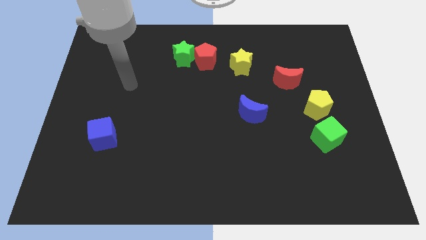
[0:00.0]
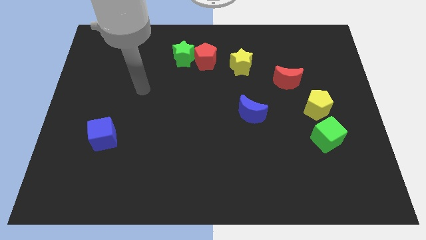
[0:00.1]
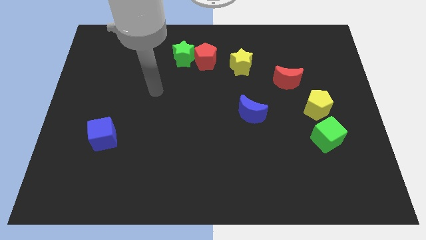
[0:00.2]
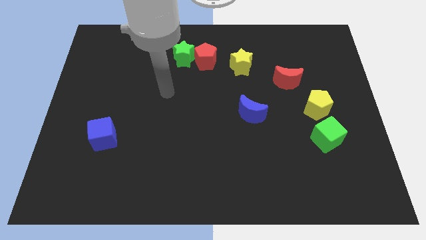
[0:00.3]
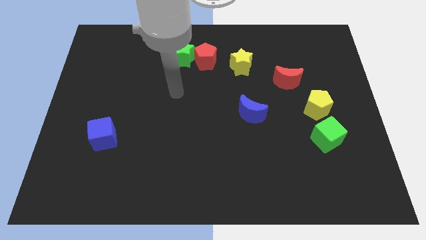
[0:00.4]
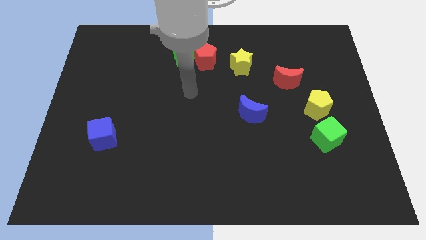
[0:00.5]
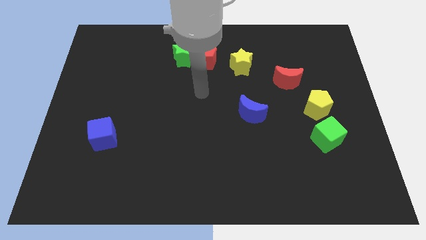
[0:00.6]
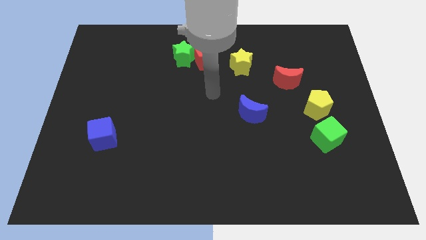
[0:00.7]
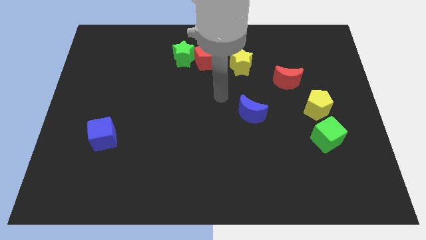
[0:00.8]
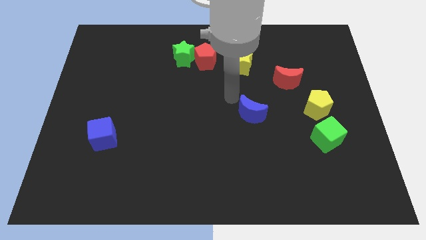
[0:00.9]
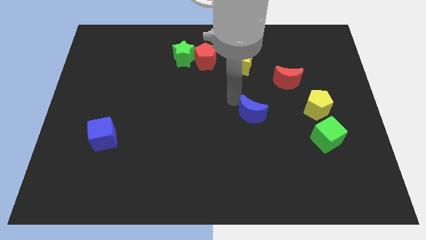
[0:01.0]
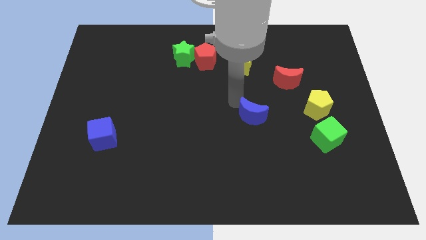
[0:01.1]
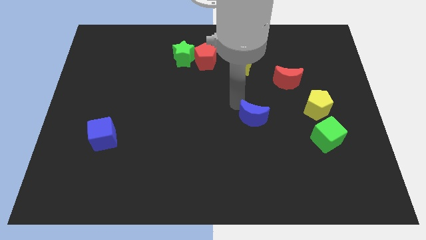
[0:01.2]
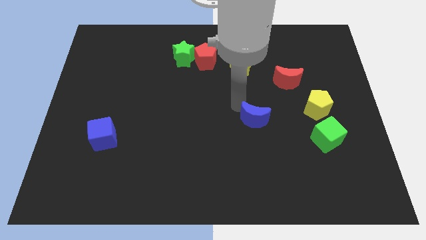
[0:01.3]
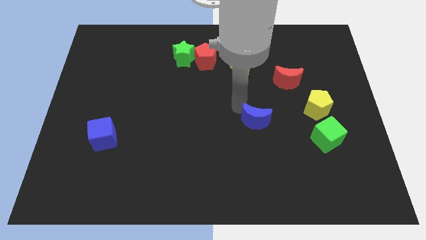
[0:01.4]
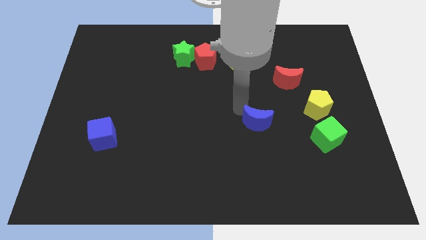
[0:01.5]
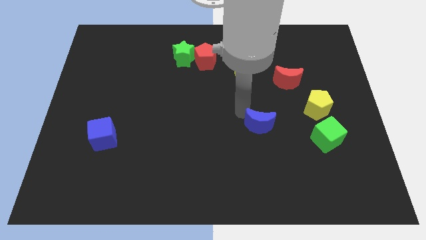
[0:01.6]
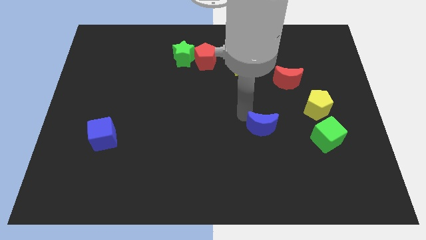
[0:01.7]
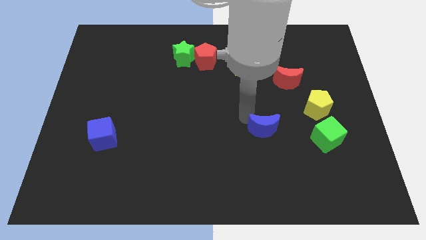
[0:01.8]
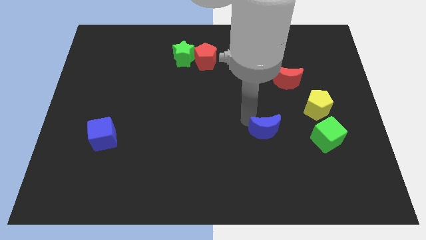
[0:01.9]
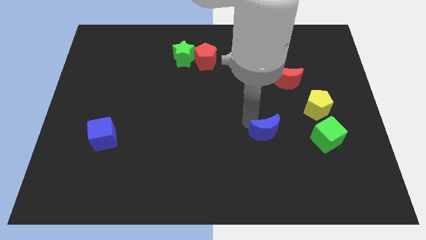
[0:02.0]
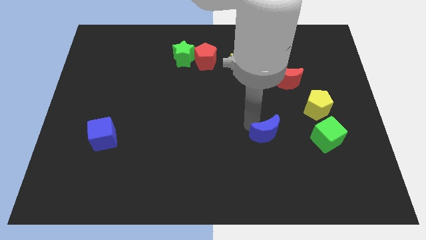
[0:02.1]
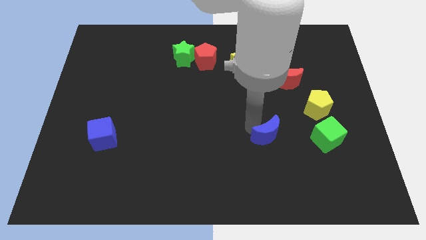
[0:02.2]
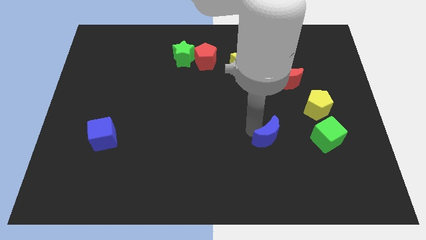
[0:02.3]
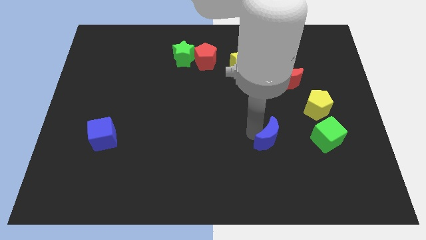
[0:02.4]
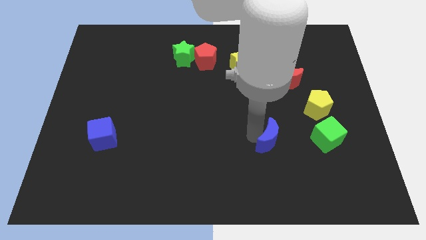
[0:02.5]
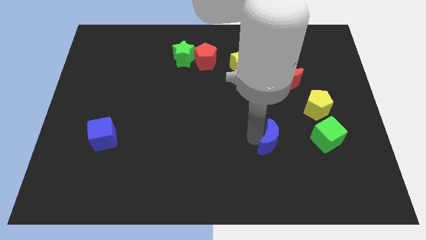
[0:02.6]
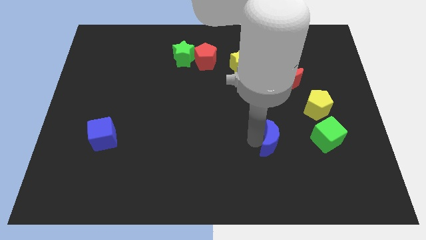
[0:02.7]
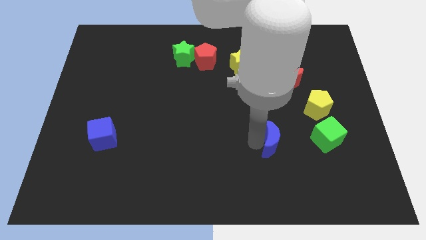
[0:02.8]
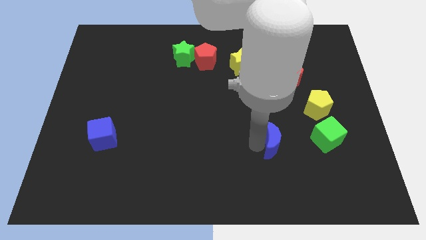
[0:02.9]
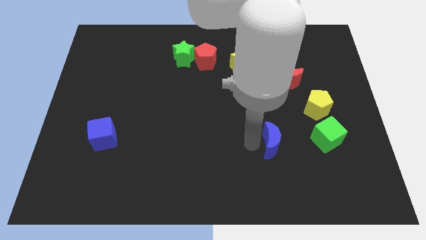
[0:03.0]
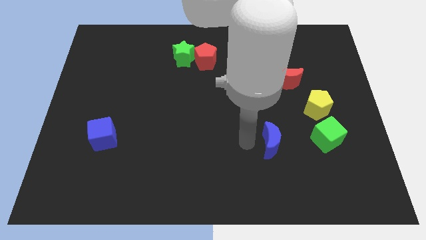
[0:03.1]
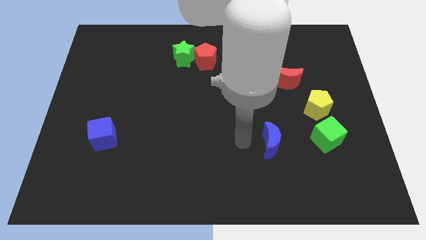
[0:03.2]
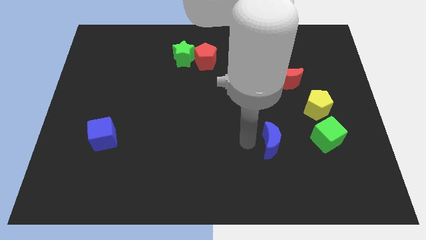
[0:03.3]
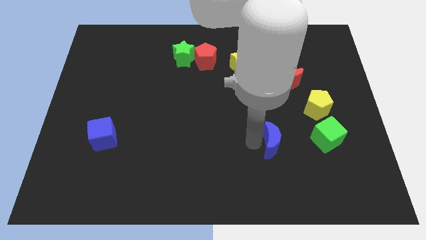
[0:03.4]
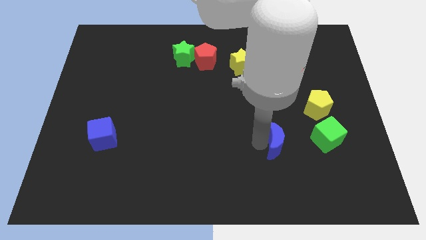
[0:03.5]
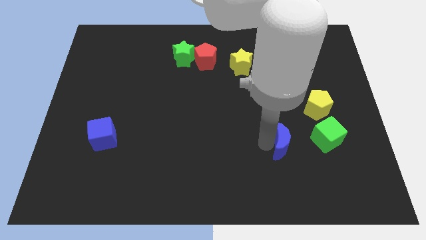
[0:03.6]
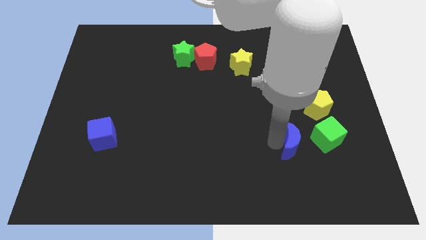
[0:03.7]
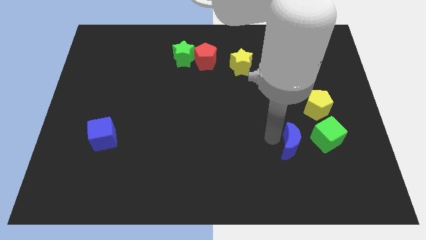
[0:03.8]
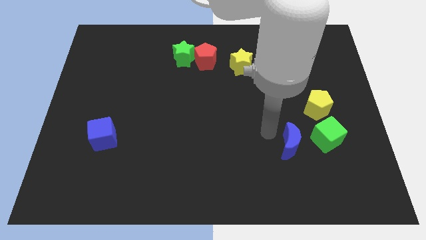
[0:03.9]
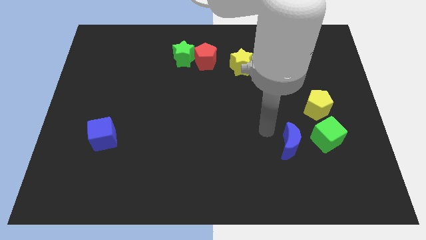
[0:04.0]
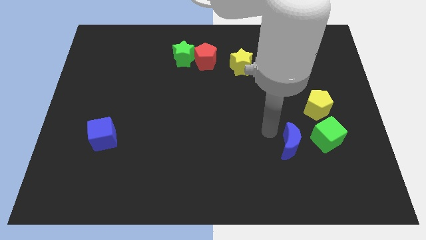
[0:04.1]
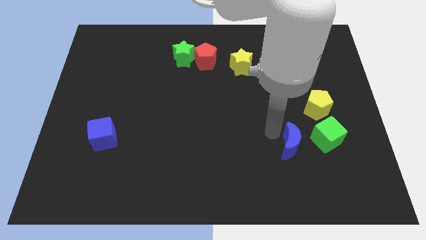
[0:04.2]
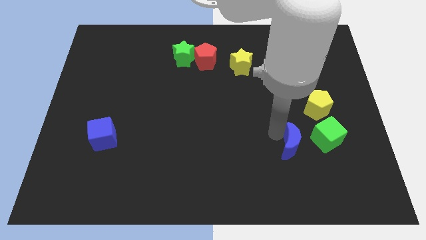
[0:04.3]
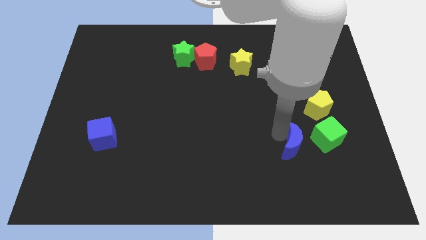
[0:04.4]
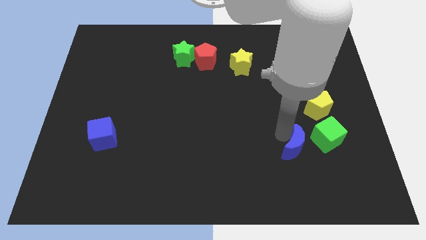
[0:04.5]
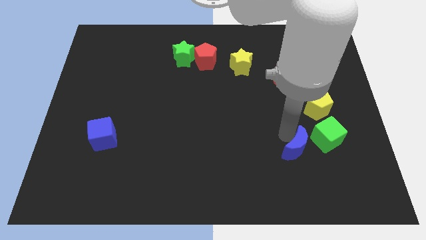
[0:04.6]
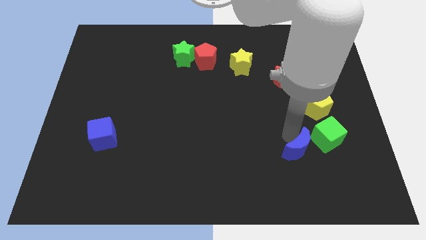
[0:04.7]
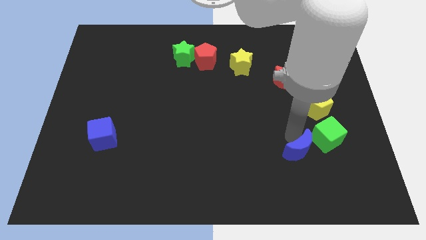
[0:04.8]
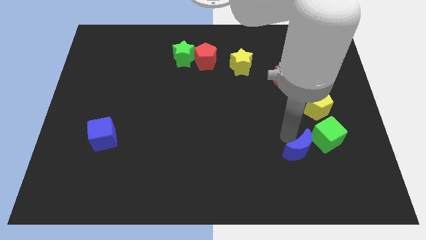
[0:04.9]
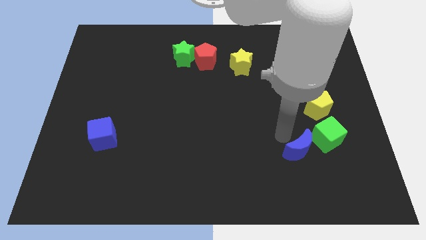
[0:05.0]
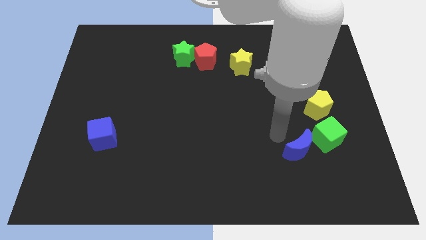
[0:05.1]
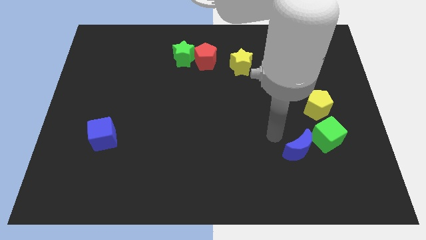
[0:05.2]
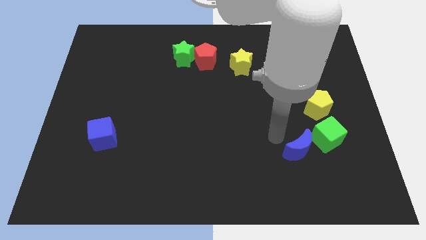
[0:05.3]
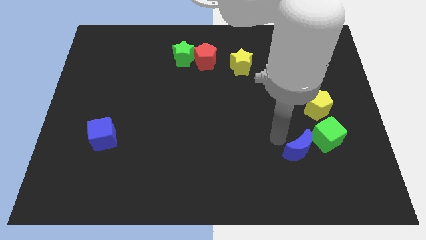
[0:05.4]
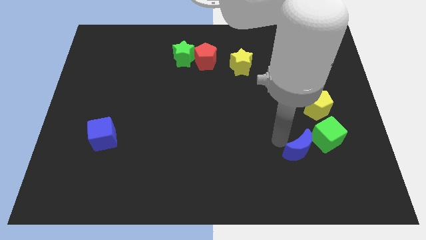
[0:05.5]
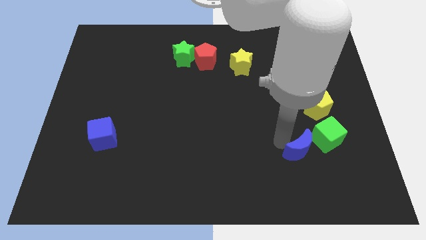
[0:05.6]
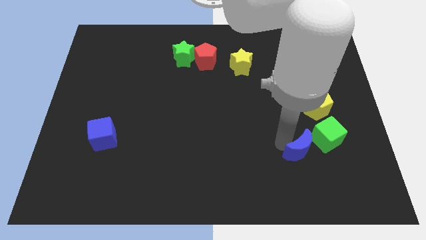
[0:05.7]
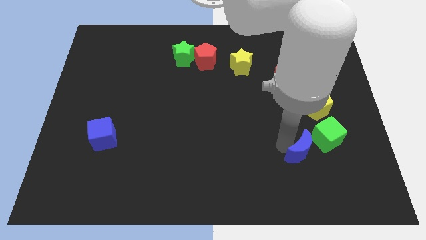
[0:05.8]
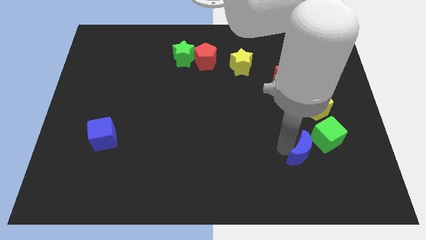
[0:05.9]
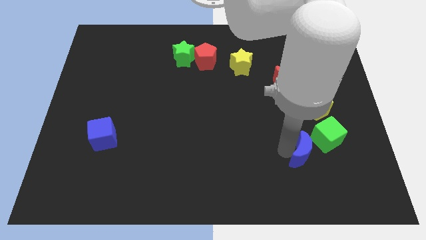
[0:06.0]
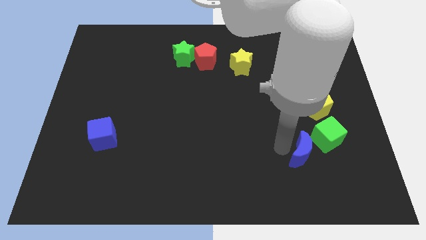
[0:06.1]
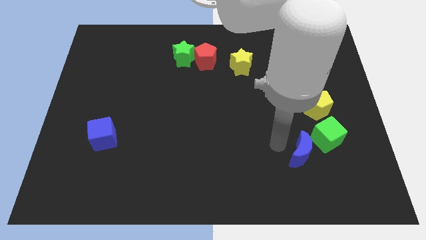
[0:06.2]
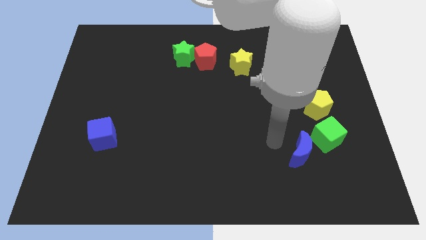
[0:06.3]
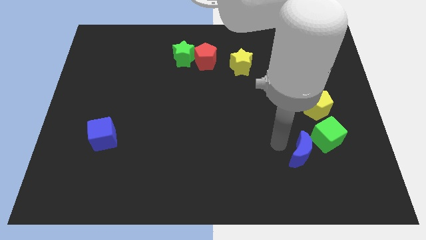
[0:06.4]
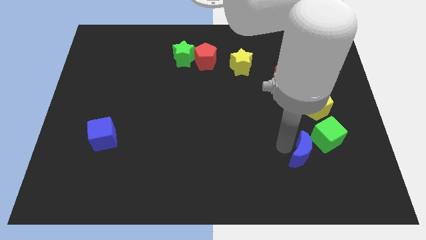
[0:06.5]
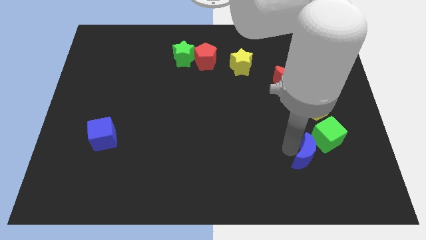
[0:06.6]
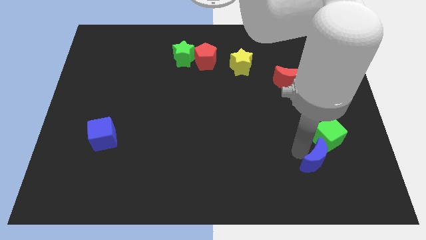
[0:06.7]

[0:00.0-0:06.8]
push the blue moon to the bottom side of the green cube

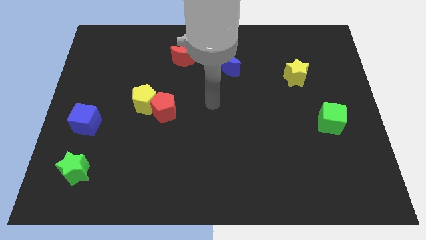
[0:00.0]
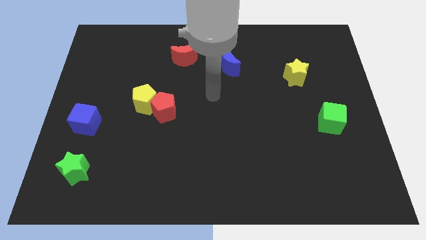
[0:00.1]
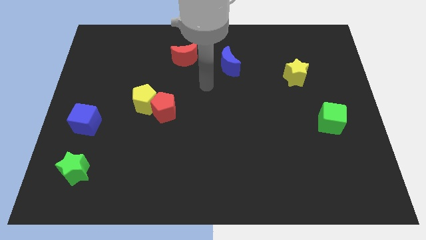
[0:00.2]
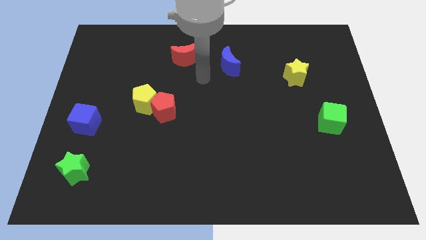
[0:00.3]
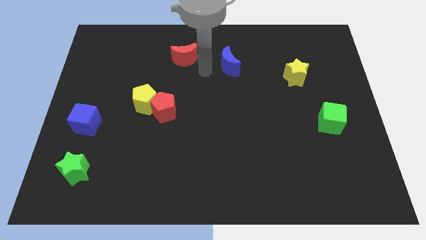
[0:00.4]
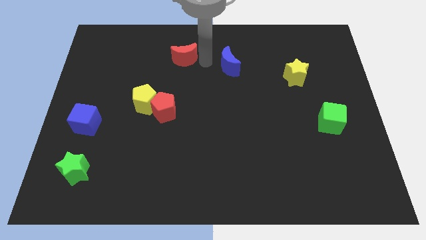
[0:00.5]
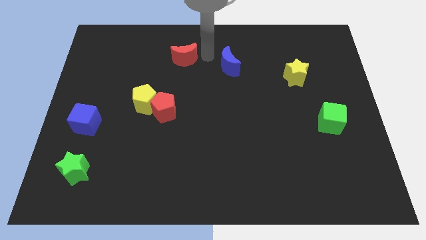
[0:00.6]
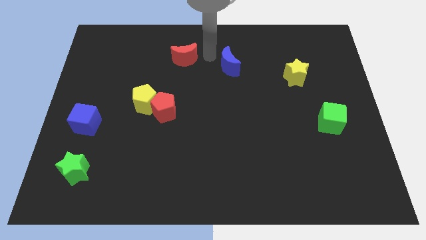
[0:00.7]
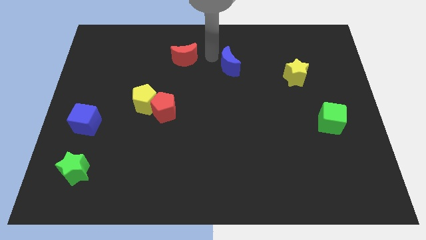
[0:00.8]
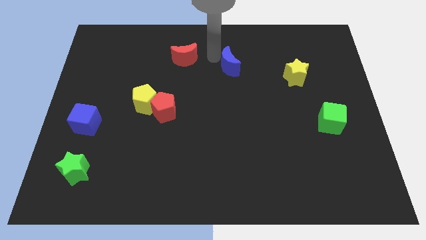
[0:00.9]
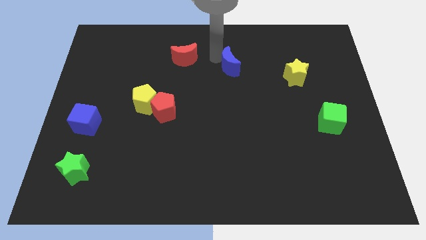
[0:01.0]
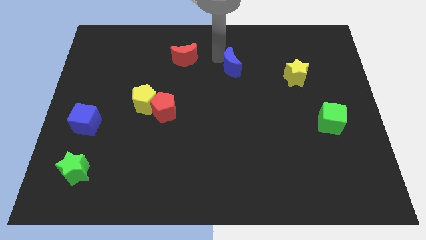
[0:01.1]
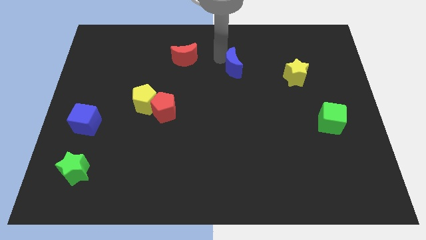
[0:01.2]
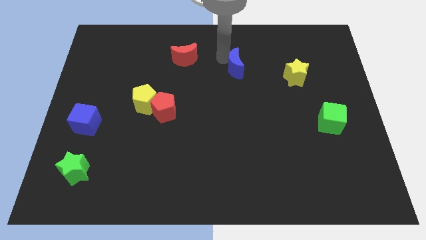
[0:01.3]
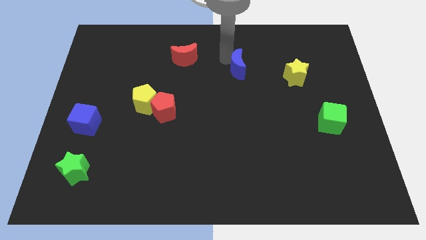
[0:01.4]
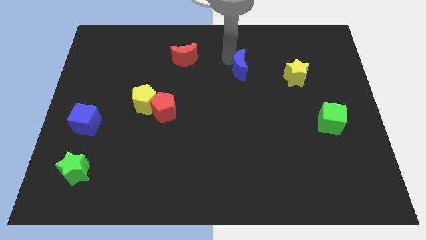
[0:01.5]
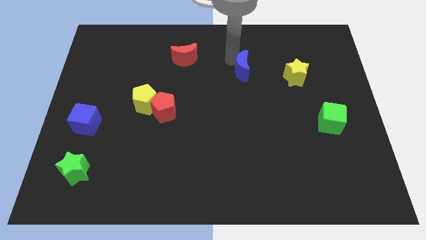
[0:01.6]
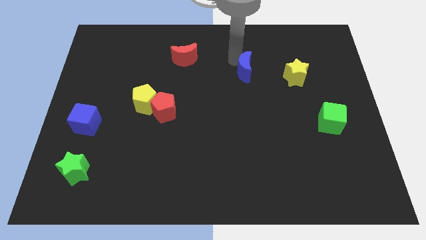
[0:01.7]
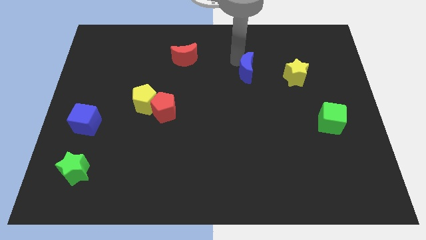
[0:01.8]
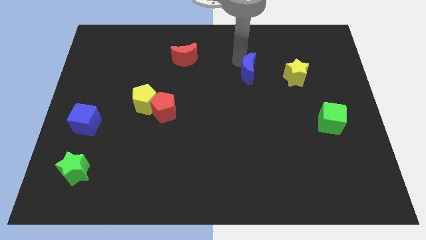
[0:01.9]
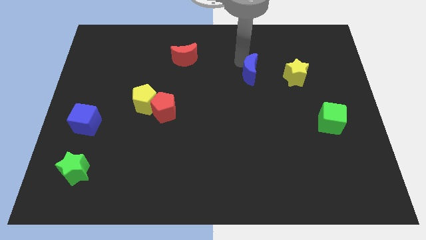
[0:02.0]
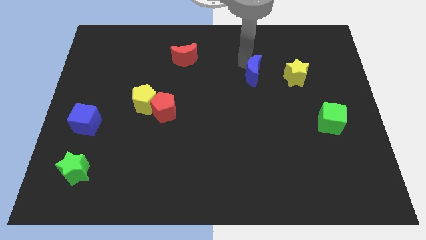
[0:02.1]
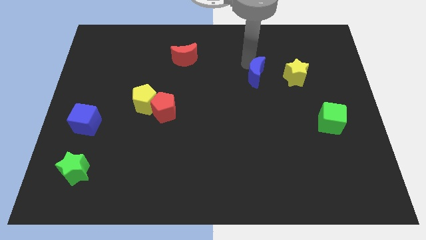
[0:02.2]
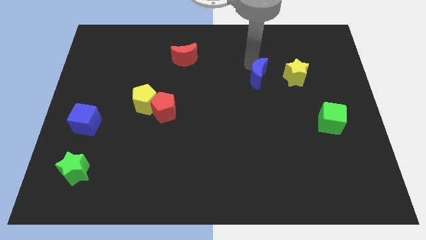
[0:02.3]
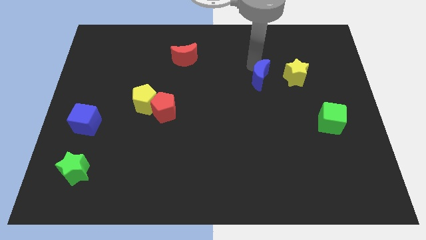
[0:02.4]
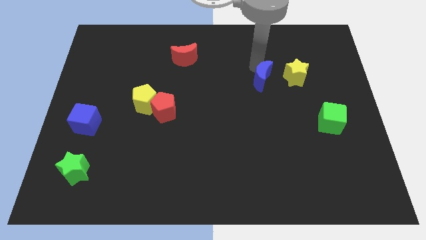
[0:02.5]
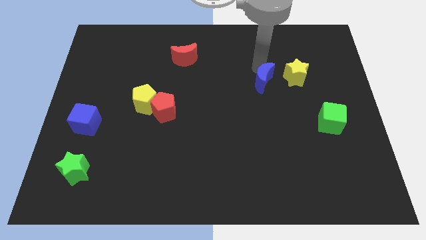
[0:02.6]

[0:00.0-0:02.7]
move the blue moon to the bottom left of the yellow star
